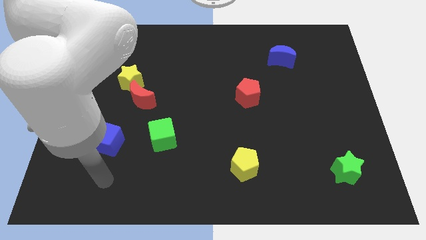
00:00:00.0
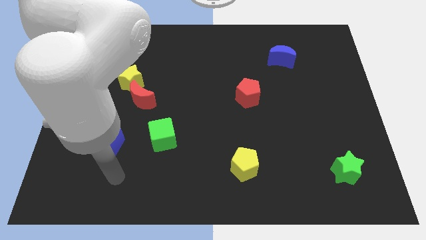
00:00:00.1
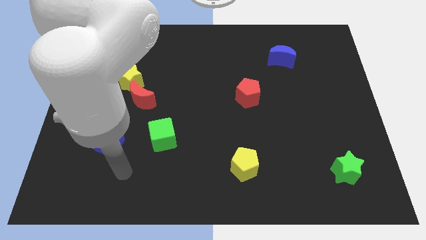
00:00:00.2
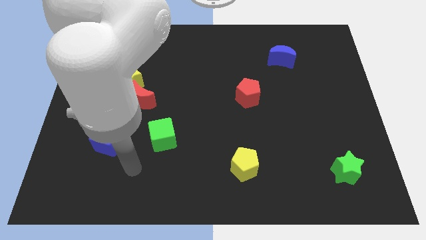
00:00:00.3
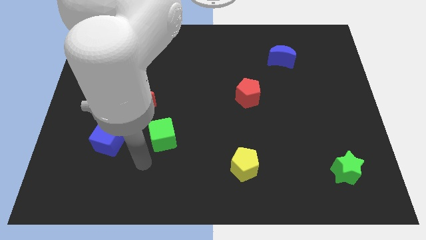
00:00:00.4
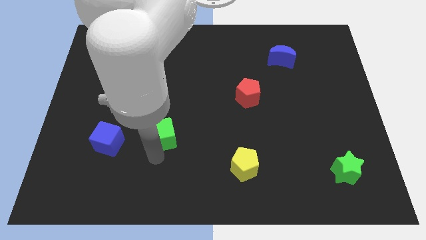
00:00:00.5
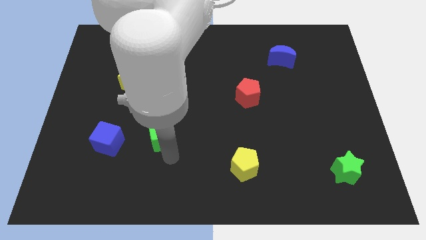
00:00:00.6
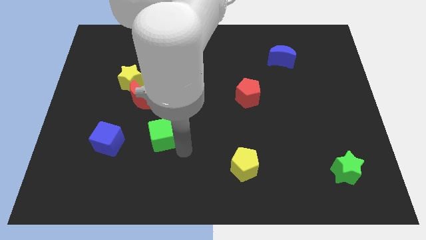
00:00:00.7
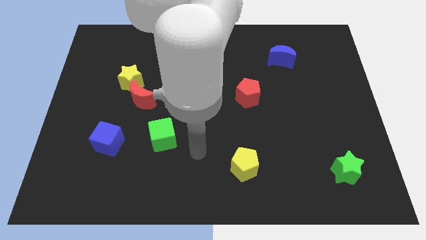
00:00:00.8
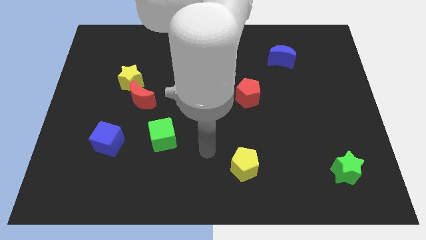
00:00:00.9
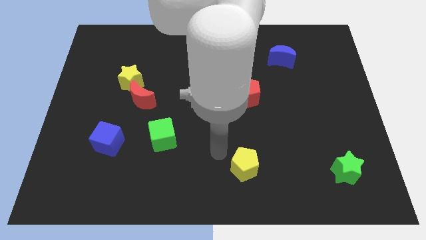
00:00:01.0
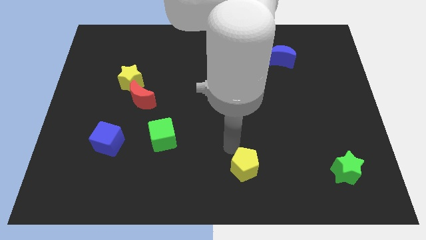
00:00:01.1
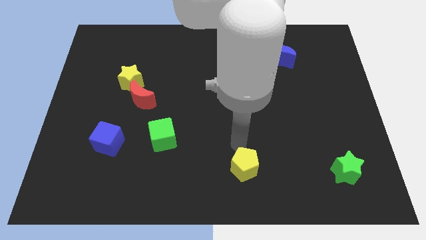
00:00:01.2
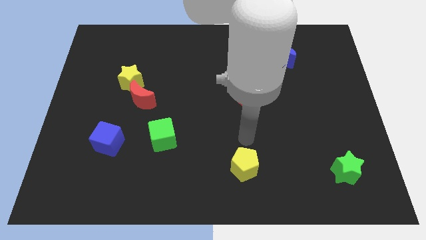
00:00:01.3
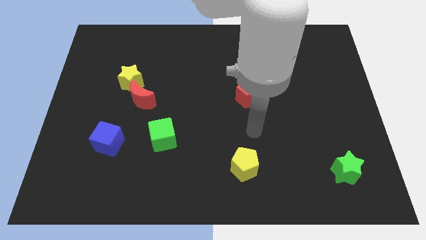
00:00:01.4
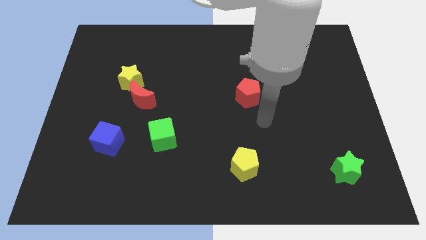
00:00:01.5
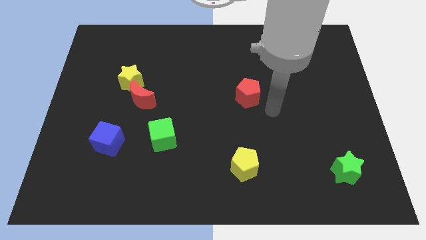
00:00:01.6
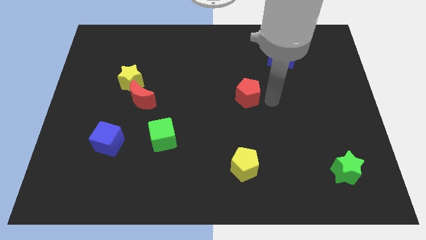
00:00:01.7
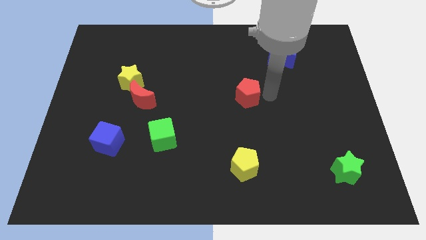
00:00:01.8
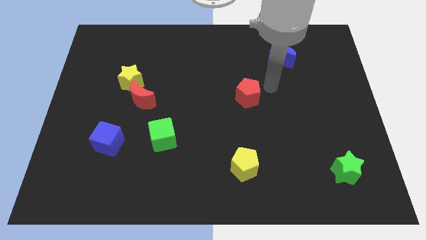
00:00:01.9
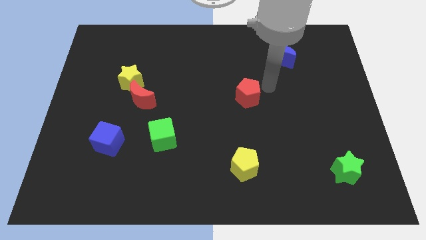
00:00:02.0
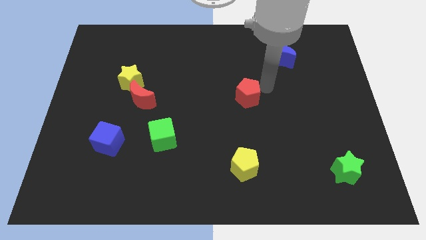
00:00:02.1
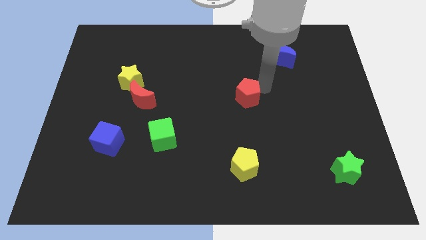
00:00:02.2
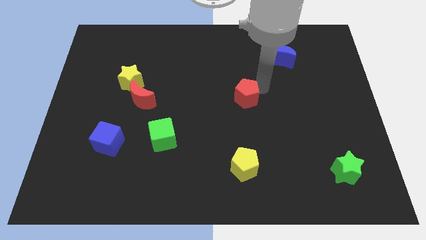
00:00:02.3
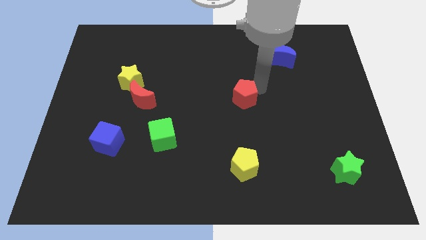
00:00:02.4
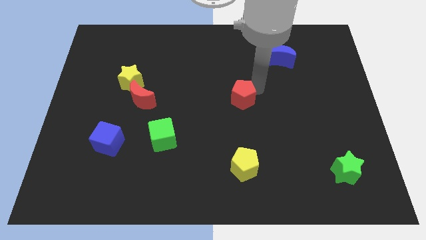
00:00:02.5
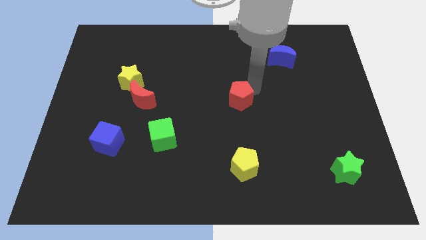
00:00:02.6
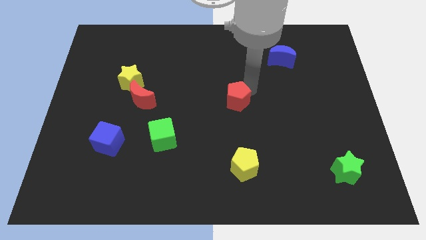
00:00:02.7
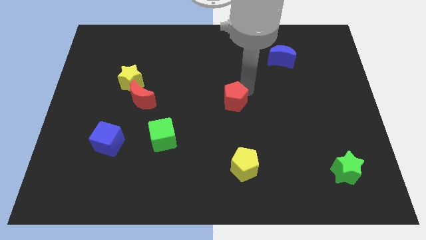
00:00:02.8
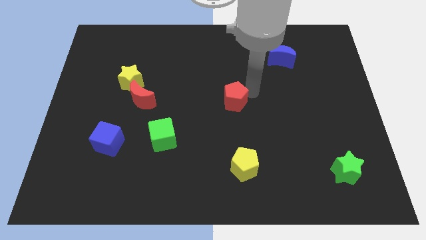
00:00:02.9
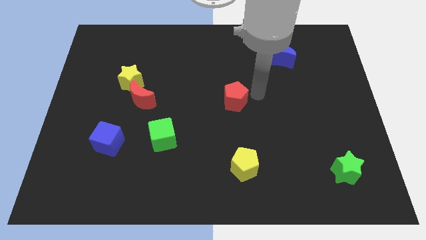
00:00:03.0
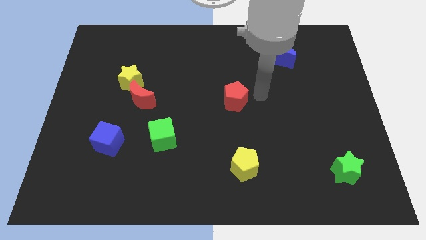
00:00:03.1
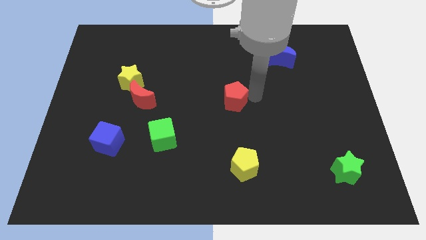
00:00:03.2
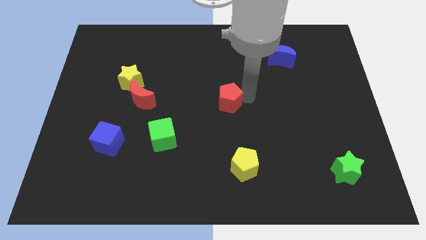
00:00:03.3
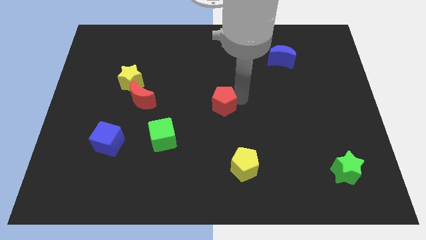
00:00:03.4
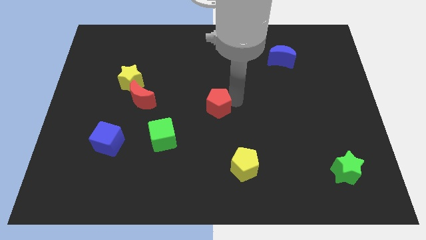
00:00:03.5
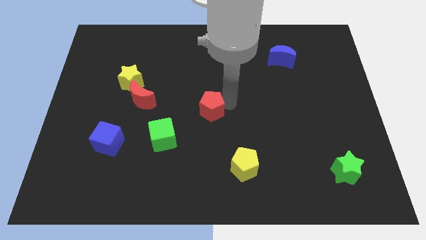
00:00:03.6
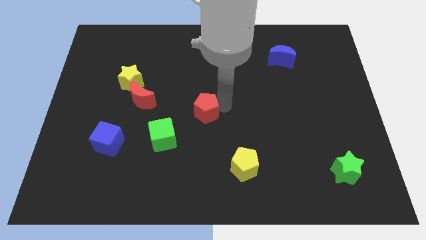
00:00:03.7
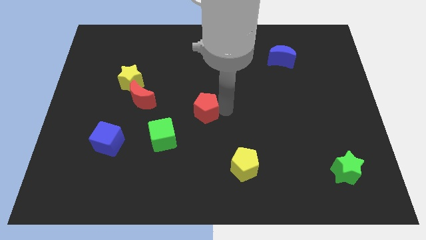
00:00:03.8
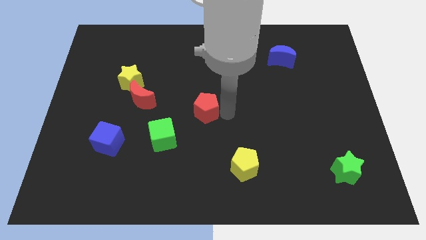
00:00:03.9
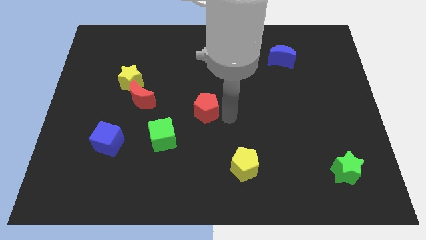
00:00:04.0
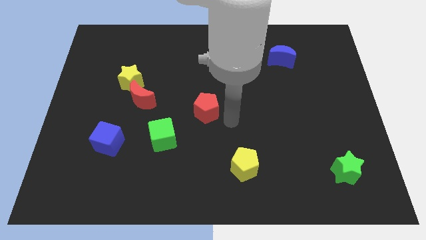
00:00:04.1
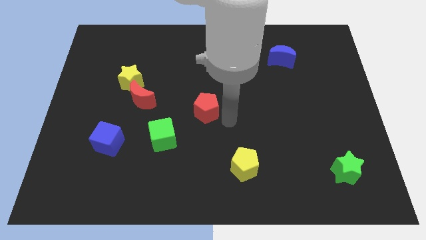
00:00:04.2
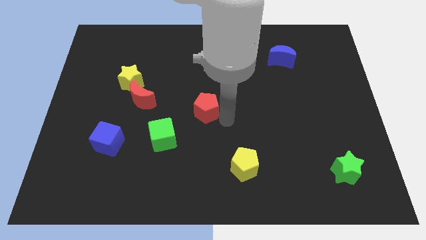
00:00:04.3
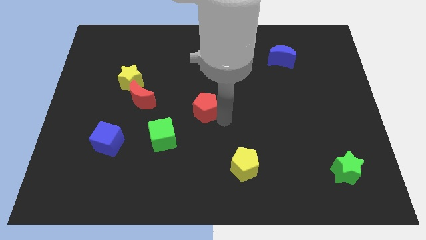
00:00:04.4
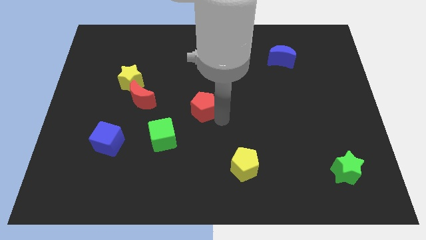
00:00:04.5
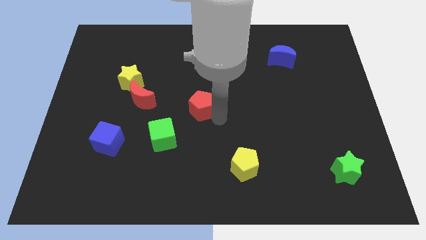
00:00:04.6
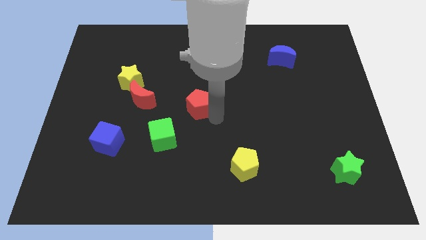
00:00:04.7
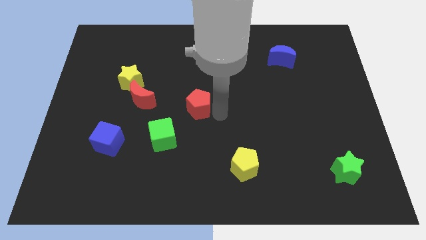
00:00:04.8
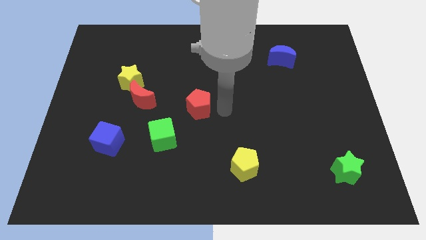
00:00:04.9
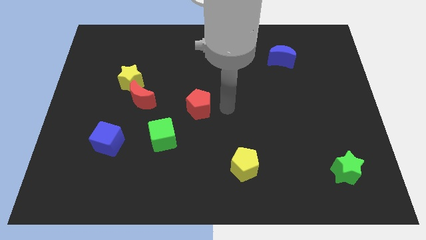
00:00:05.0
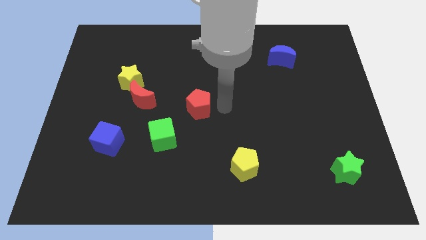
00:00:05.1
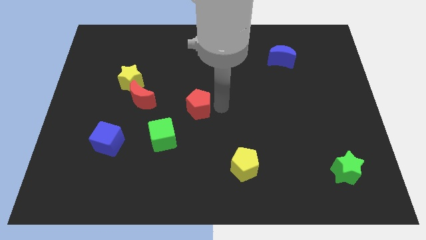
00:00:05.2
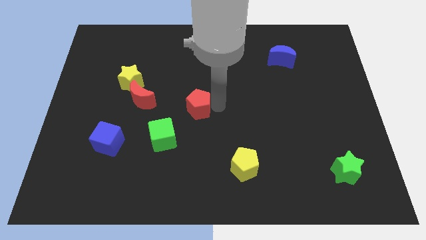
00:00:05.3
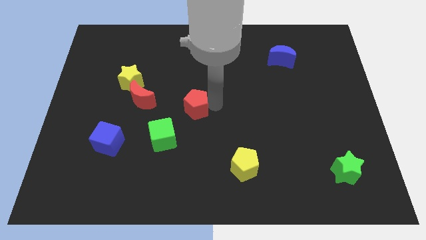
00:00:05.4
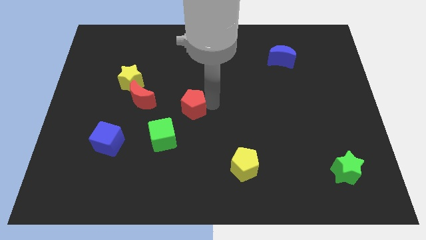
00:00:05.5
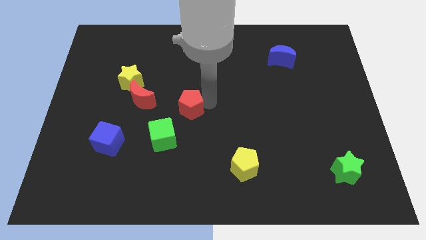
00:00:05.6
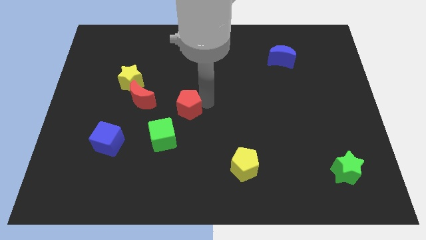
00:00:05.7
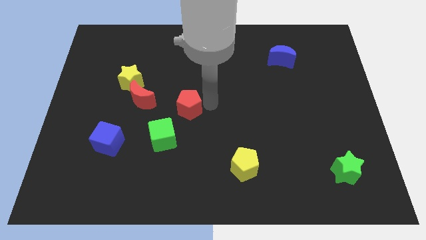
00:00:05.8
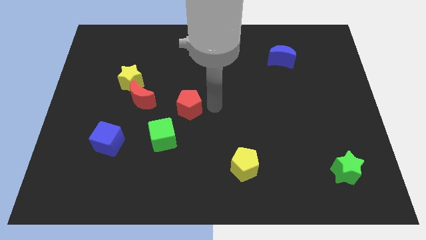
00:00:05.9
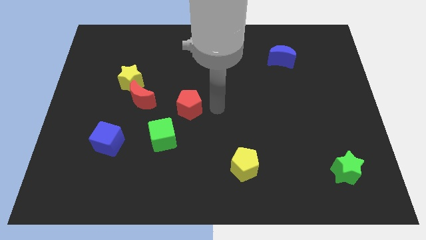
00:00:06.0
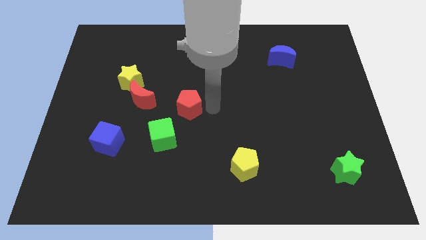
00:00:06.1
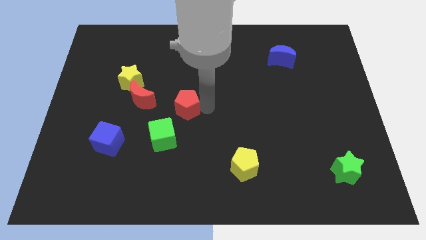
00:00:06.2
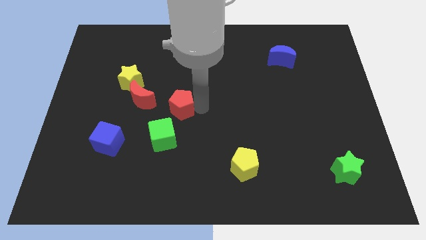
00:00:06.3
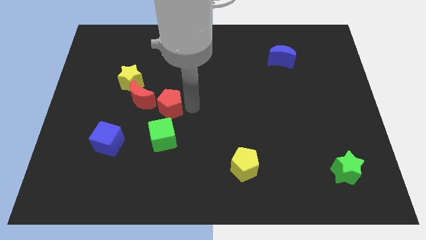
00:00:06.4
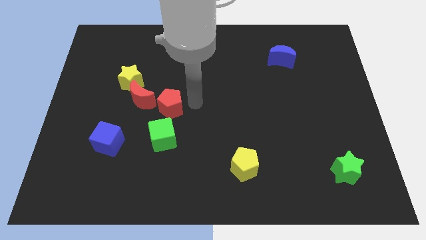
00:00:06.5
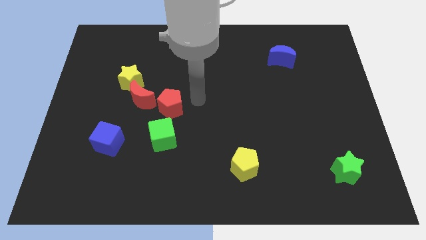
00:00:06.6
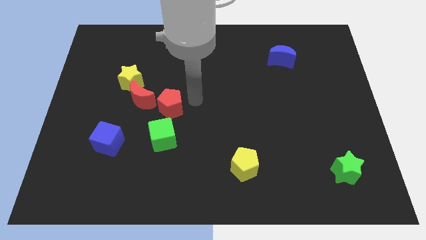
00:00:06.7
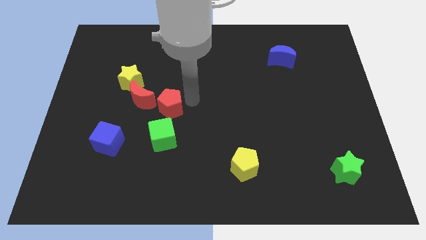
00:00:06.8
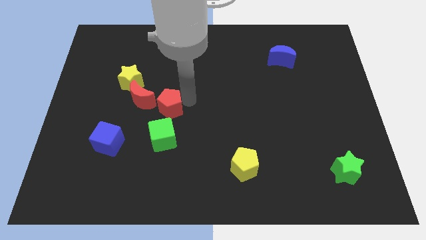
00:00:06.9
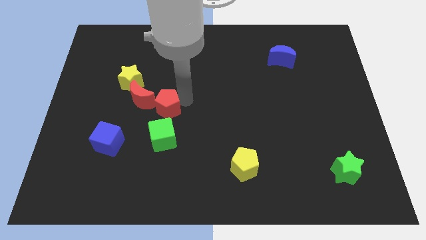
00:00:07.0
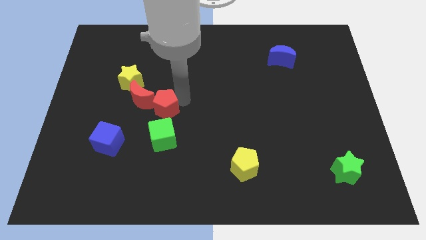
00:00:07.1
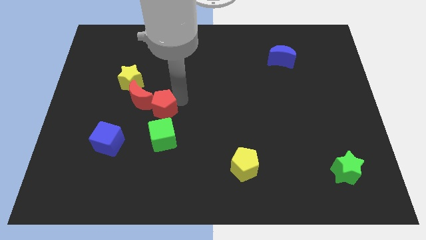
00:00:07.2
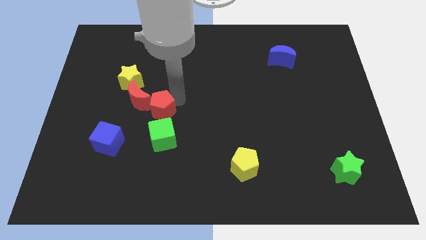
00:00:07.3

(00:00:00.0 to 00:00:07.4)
move the red pentagon left

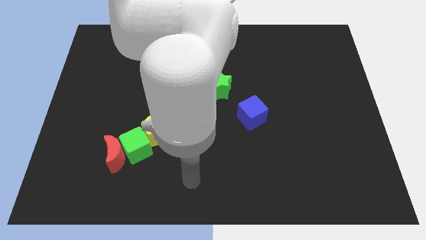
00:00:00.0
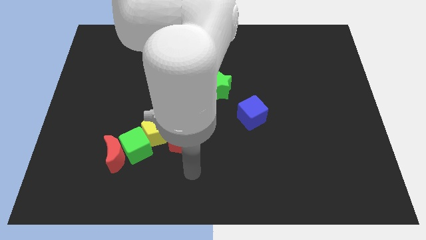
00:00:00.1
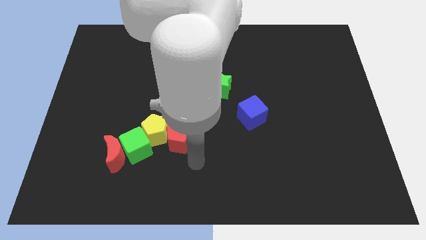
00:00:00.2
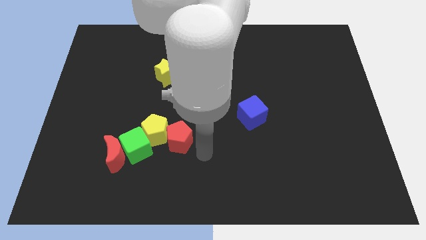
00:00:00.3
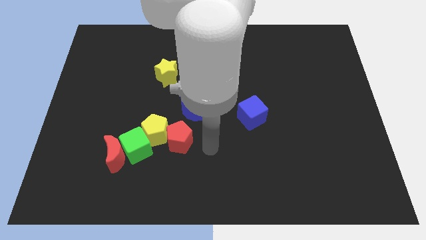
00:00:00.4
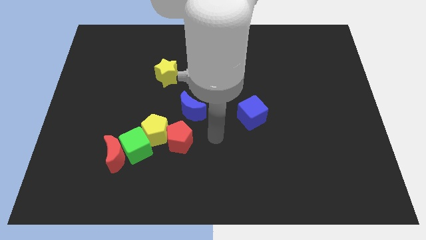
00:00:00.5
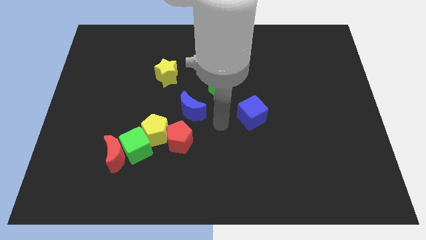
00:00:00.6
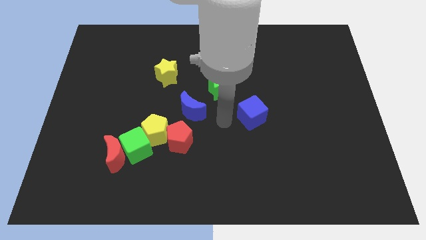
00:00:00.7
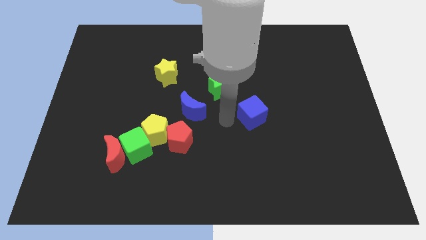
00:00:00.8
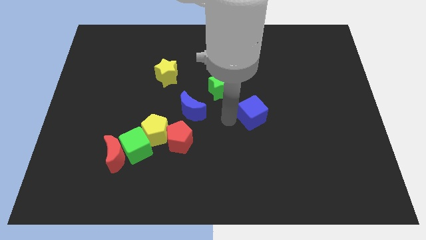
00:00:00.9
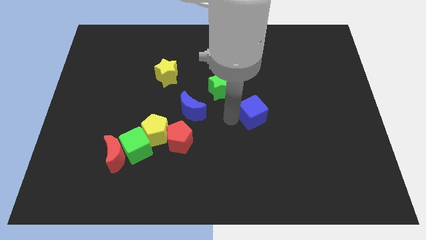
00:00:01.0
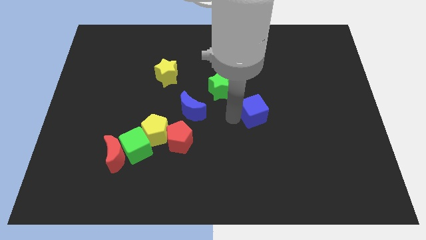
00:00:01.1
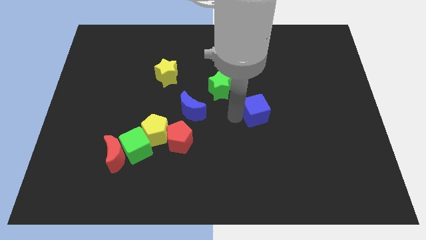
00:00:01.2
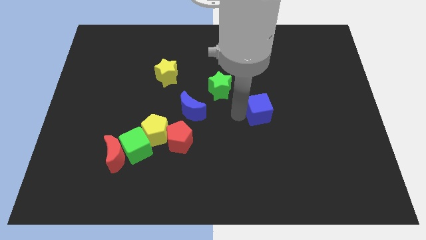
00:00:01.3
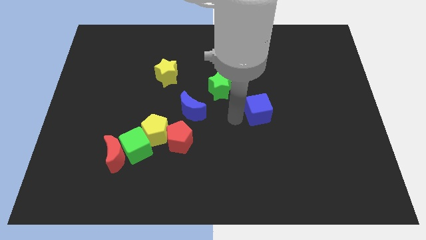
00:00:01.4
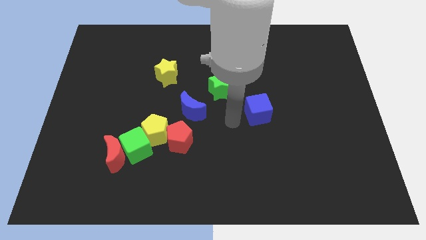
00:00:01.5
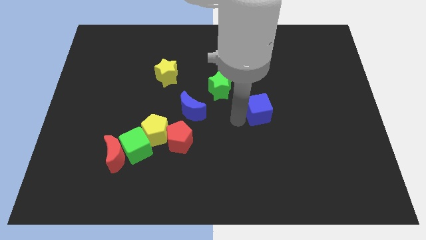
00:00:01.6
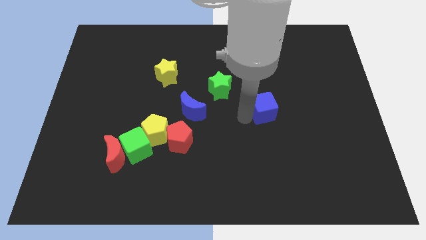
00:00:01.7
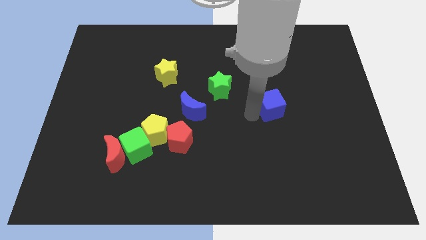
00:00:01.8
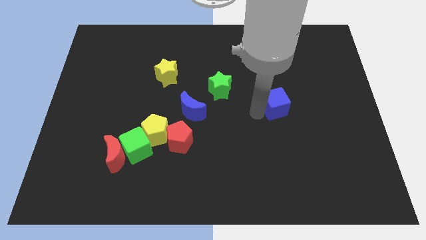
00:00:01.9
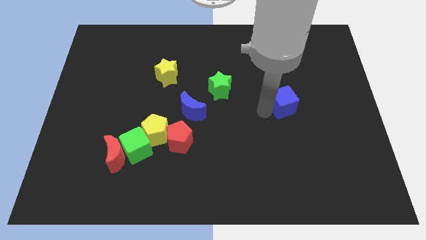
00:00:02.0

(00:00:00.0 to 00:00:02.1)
push the blue cube slightly diagonally up and to the right
